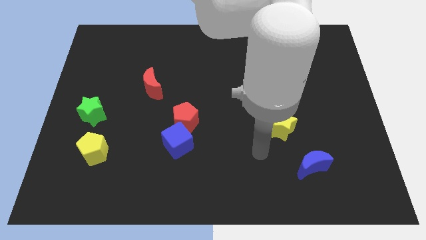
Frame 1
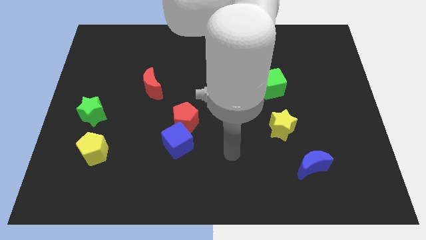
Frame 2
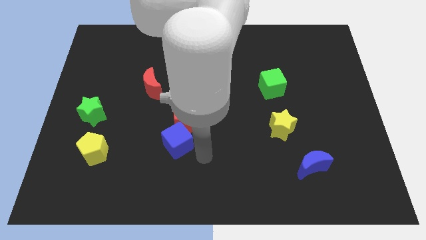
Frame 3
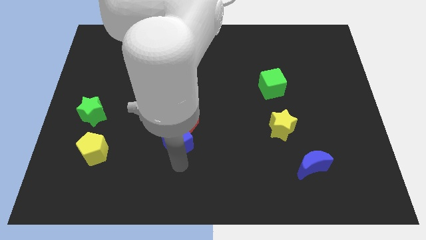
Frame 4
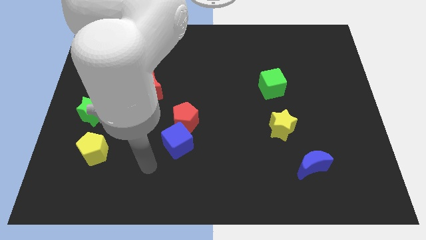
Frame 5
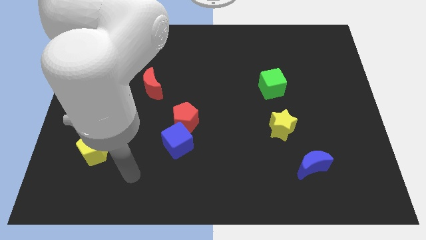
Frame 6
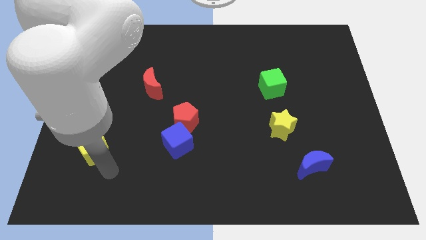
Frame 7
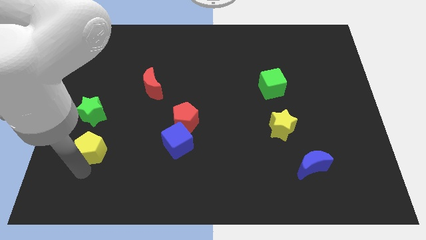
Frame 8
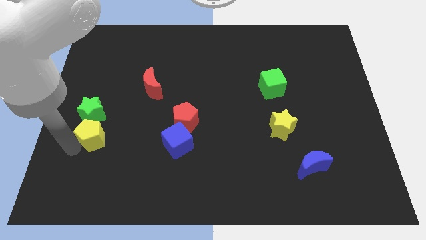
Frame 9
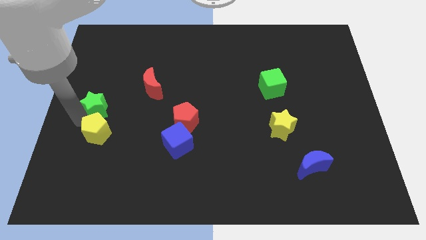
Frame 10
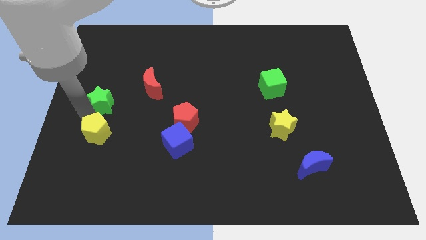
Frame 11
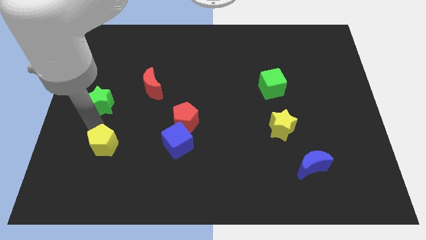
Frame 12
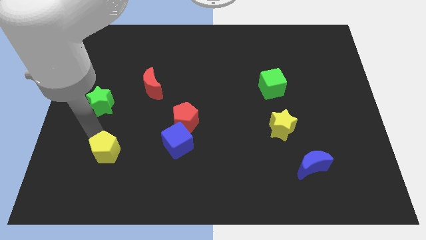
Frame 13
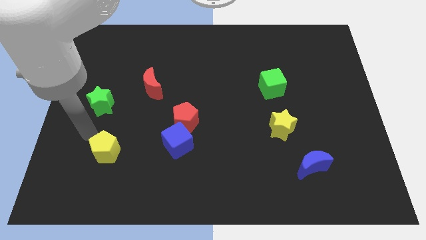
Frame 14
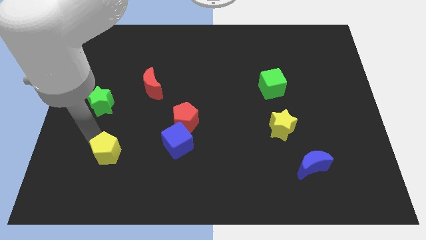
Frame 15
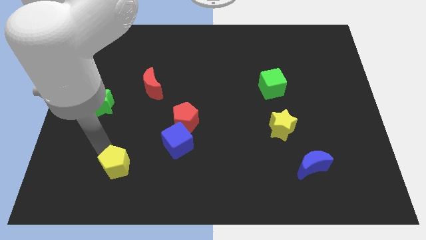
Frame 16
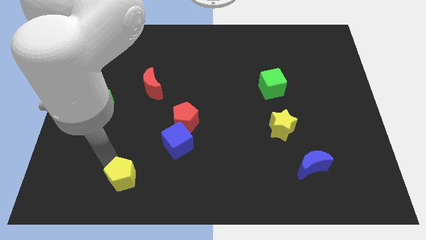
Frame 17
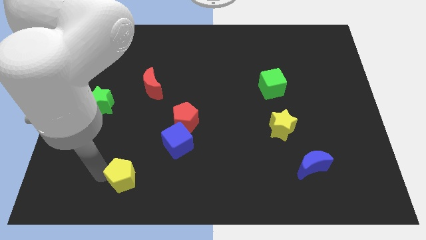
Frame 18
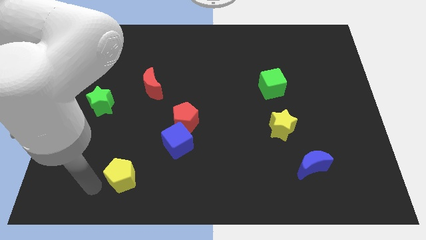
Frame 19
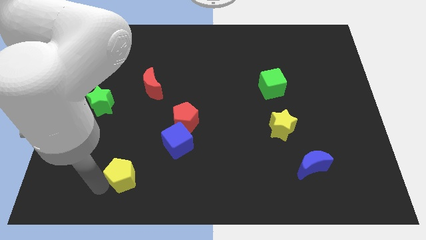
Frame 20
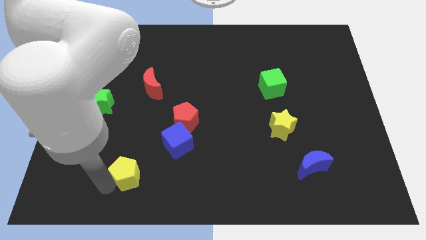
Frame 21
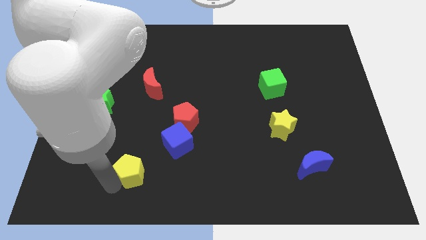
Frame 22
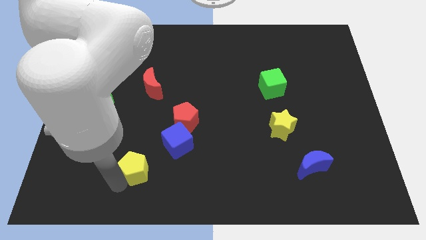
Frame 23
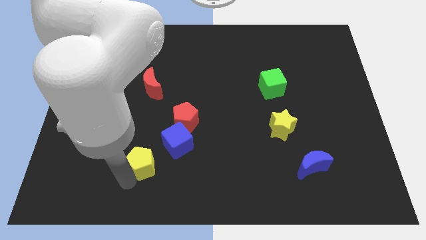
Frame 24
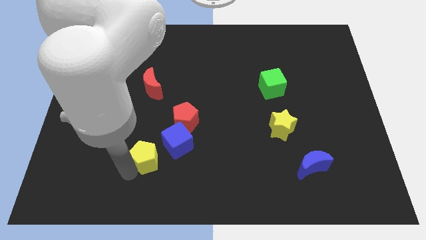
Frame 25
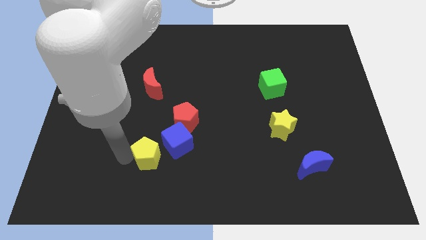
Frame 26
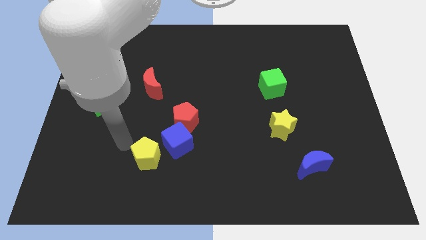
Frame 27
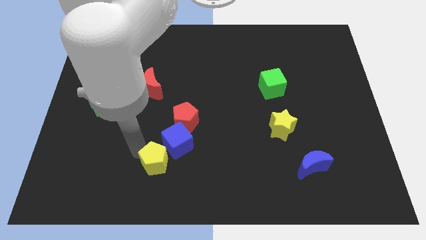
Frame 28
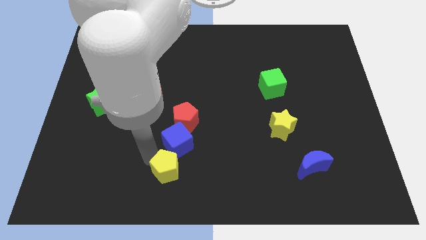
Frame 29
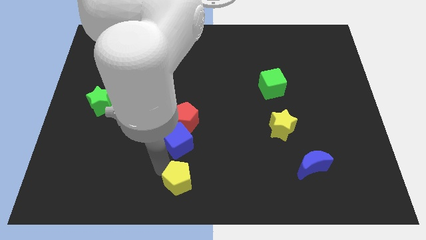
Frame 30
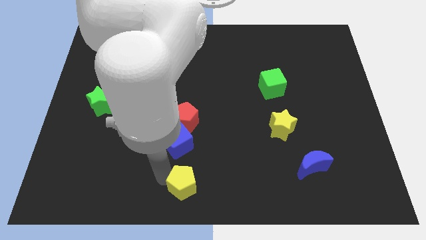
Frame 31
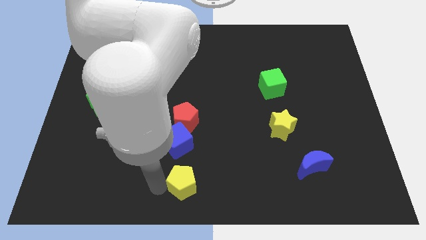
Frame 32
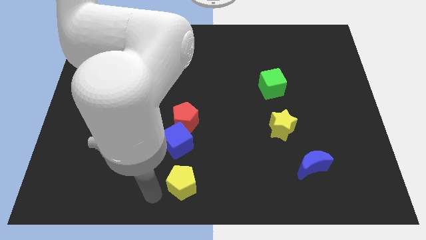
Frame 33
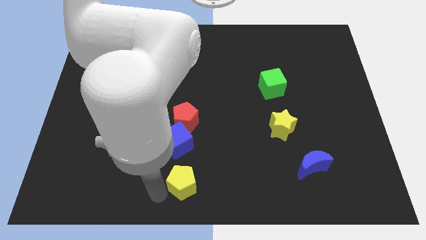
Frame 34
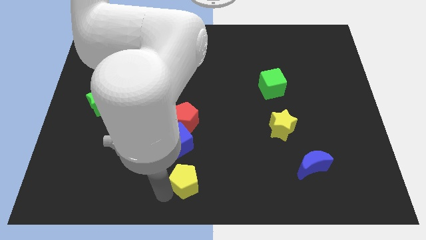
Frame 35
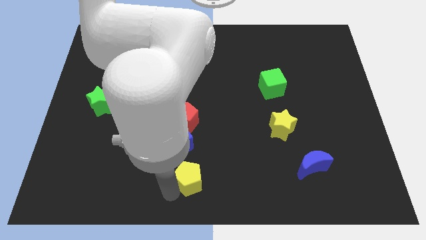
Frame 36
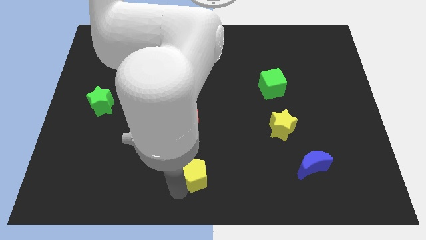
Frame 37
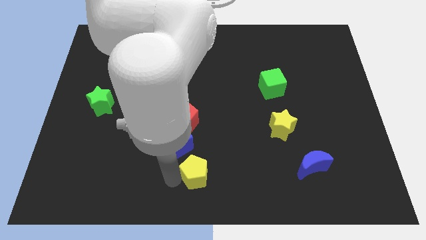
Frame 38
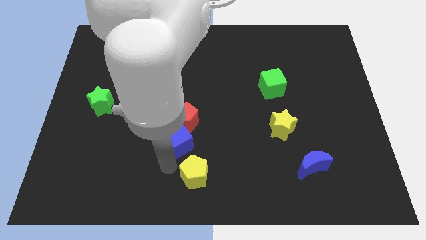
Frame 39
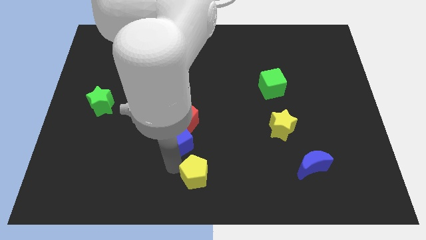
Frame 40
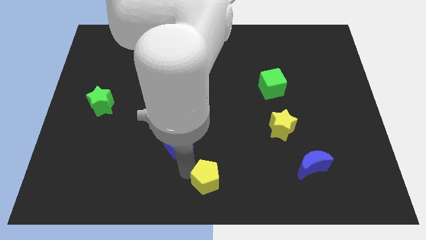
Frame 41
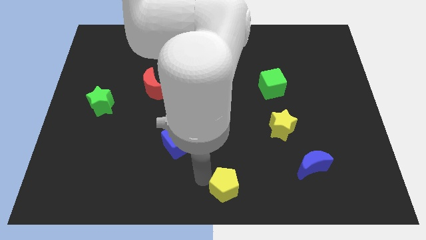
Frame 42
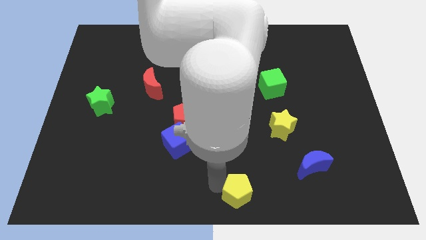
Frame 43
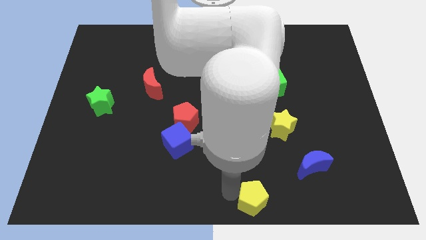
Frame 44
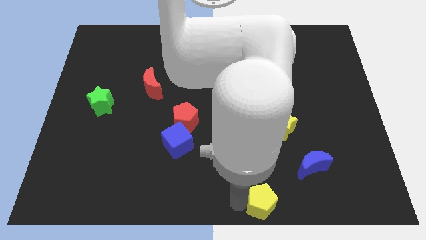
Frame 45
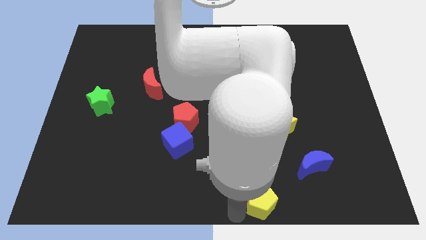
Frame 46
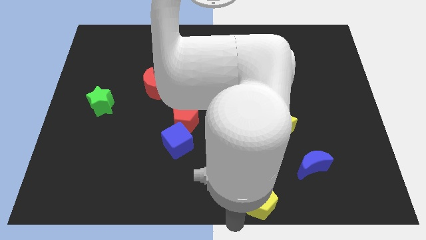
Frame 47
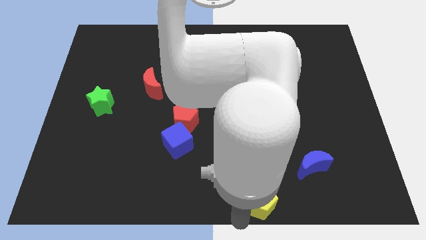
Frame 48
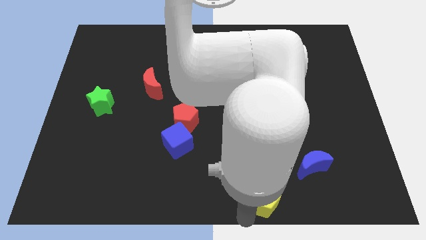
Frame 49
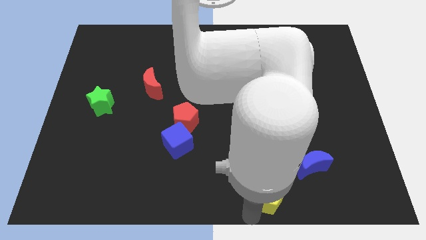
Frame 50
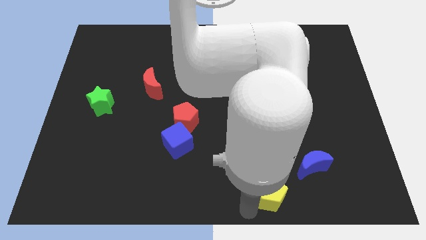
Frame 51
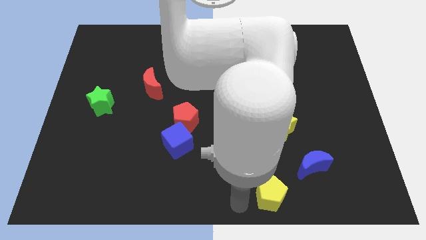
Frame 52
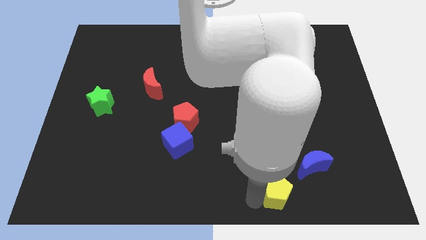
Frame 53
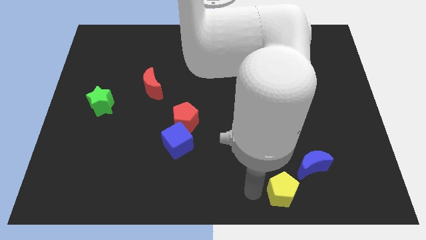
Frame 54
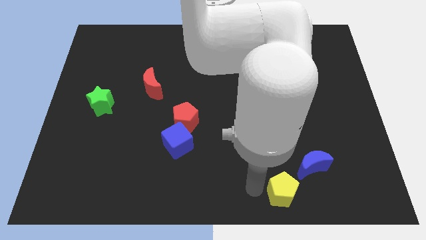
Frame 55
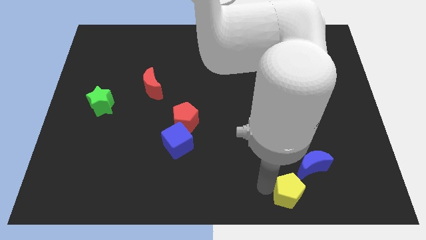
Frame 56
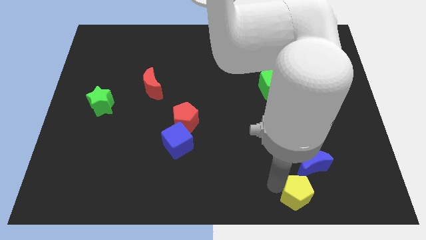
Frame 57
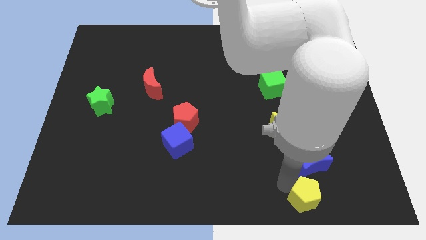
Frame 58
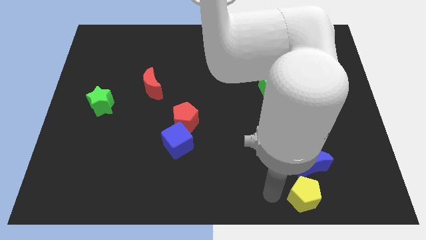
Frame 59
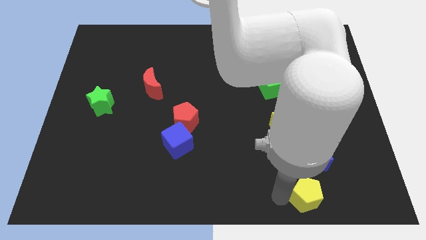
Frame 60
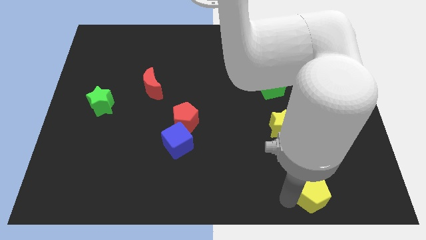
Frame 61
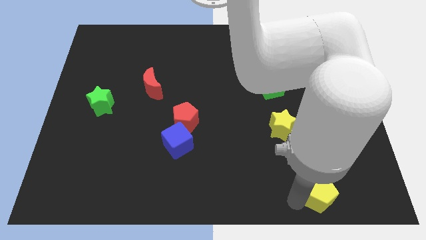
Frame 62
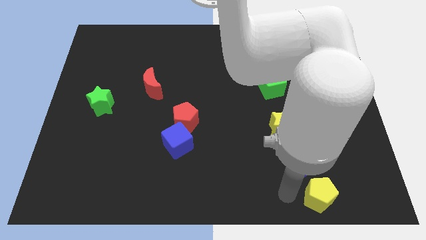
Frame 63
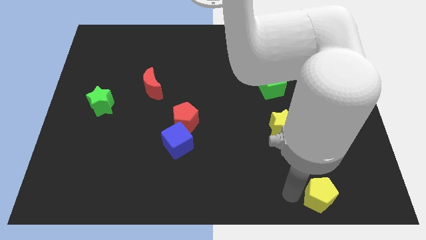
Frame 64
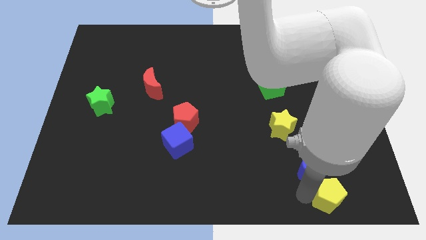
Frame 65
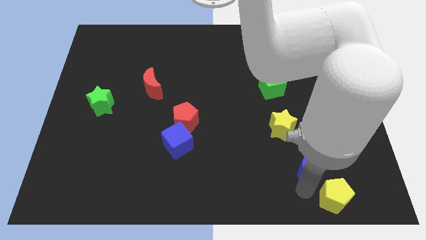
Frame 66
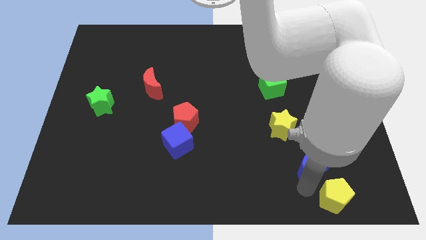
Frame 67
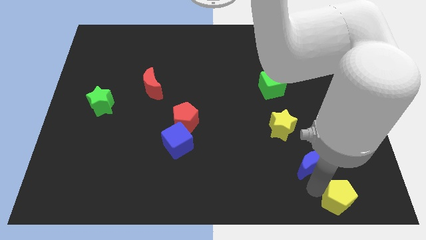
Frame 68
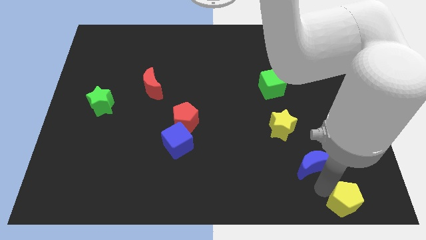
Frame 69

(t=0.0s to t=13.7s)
move the yellow pentagon to the bottom right
